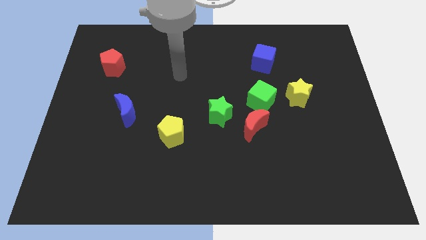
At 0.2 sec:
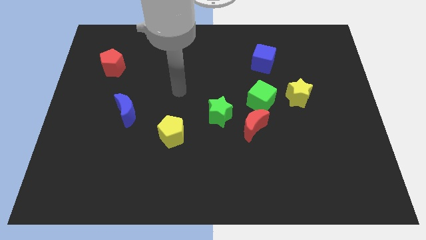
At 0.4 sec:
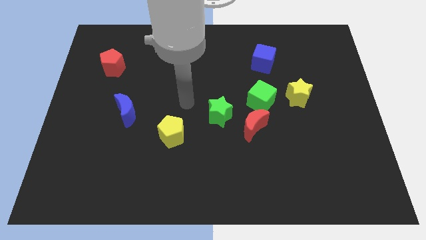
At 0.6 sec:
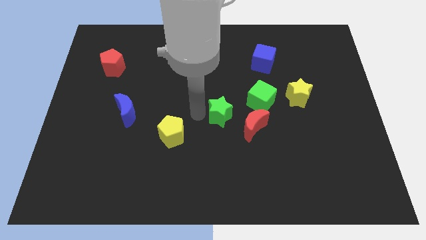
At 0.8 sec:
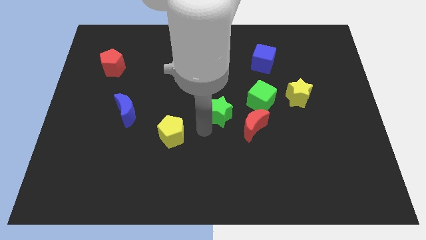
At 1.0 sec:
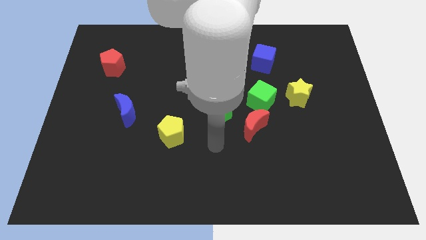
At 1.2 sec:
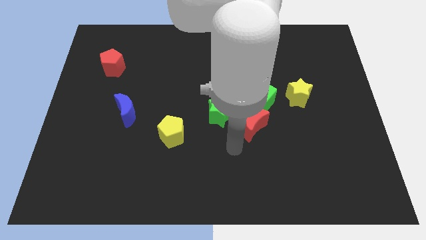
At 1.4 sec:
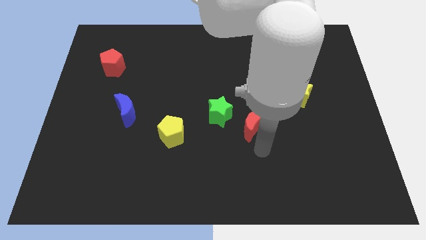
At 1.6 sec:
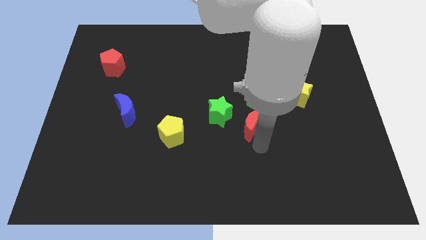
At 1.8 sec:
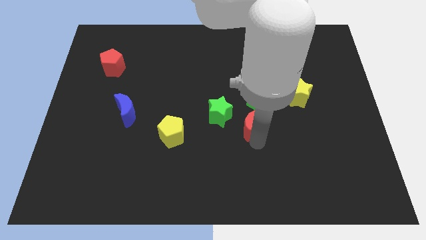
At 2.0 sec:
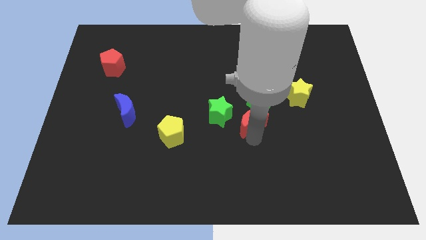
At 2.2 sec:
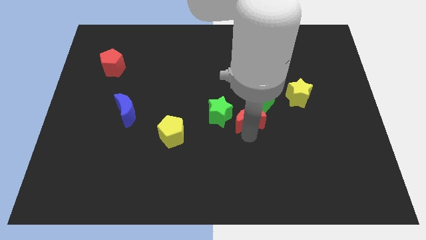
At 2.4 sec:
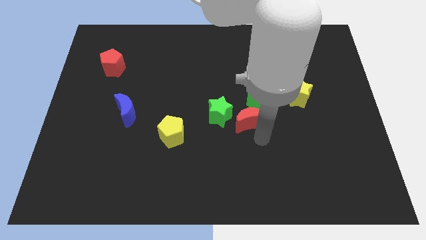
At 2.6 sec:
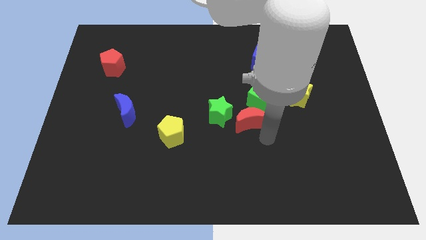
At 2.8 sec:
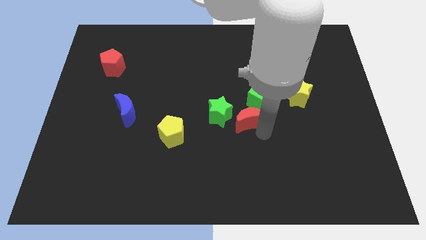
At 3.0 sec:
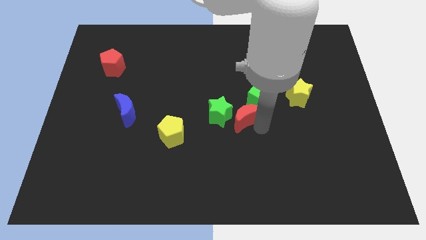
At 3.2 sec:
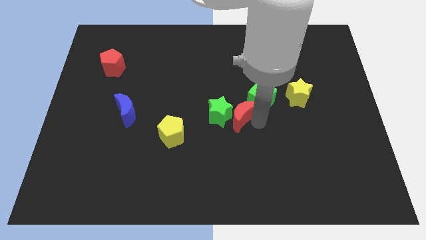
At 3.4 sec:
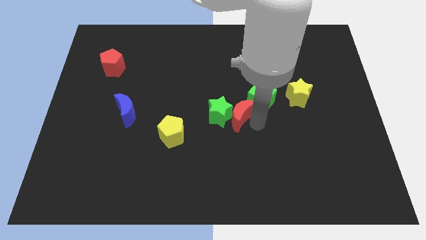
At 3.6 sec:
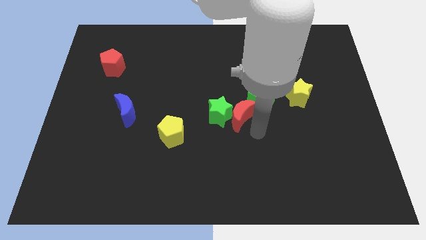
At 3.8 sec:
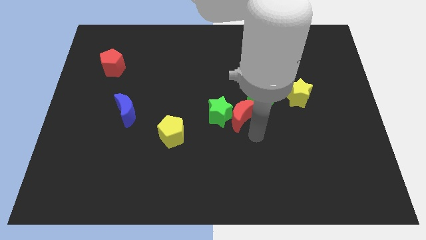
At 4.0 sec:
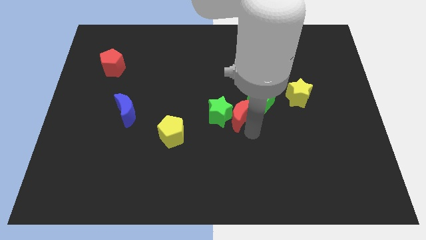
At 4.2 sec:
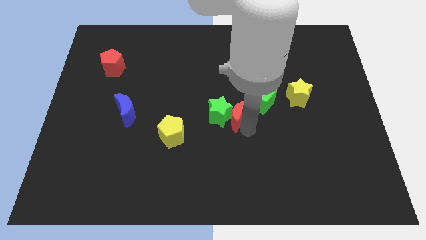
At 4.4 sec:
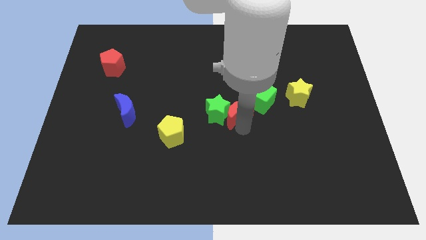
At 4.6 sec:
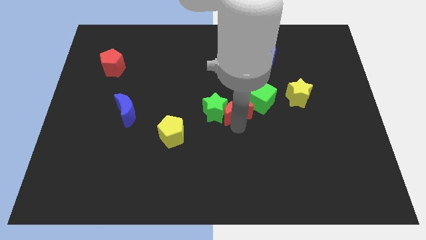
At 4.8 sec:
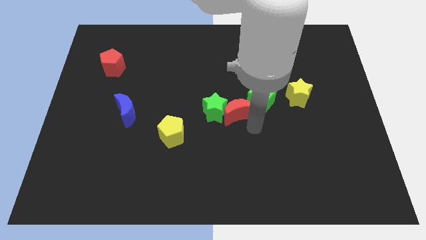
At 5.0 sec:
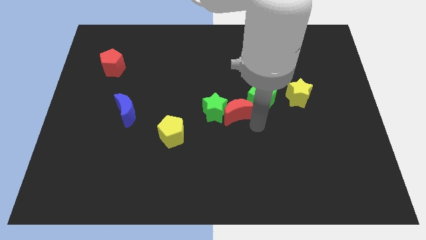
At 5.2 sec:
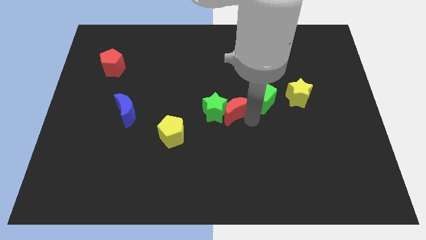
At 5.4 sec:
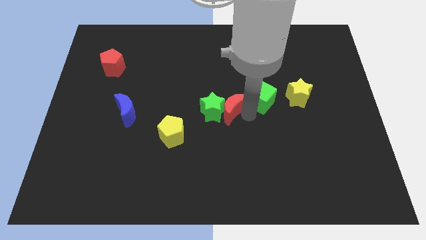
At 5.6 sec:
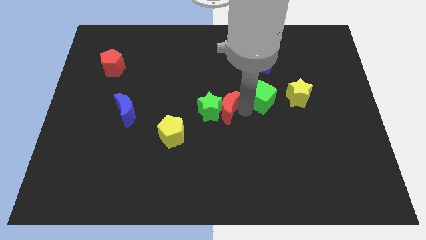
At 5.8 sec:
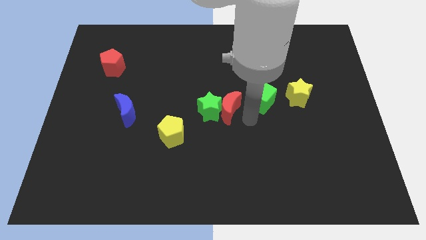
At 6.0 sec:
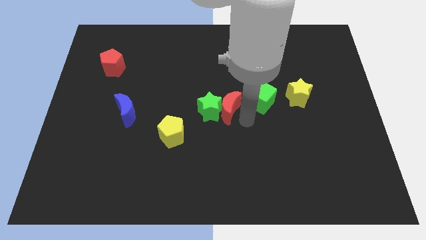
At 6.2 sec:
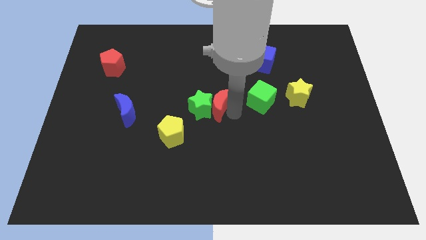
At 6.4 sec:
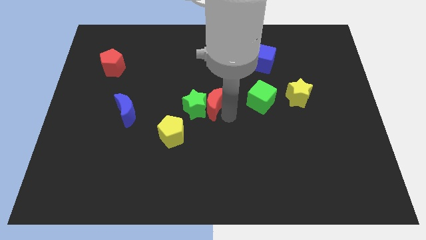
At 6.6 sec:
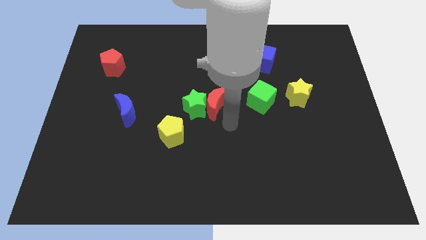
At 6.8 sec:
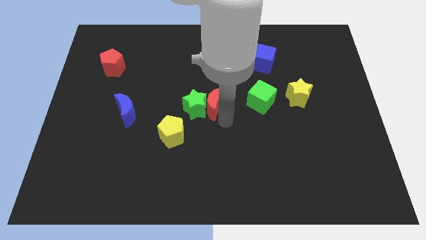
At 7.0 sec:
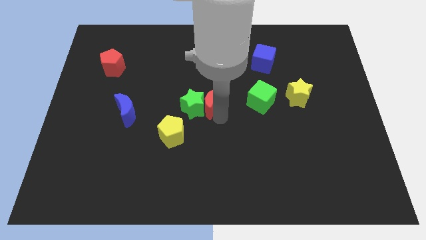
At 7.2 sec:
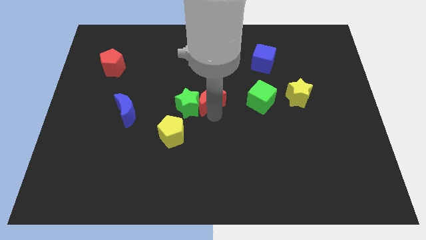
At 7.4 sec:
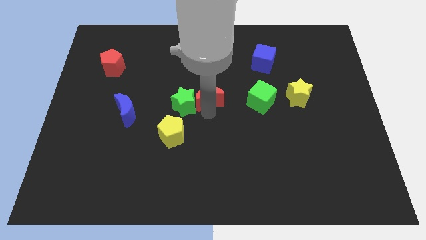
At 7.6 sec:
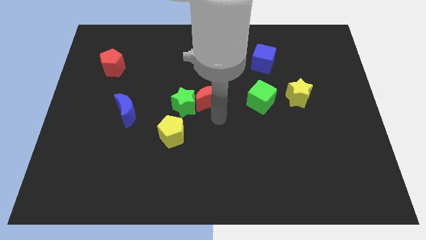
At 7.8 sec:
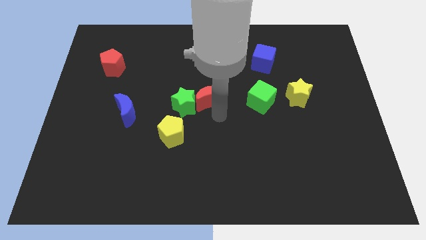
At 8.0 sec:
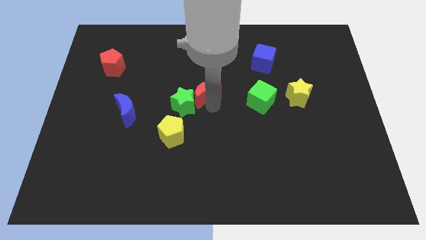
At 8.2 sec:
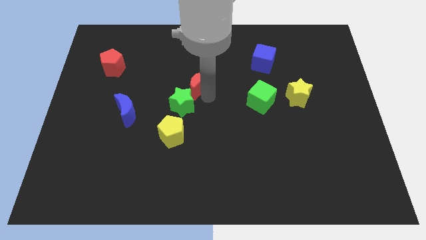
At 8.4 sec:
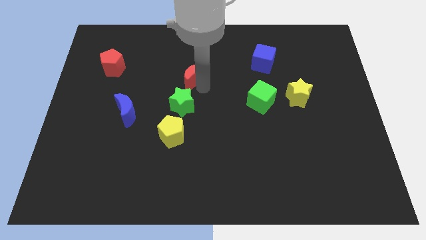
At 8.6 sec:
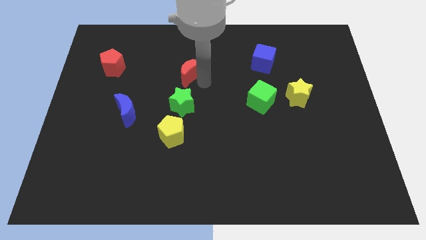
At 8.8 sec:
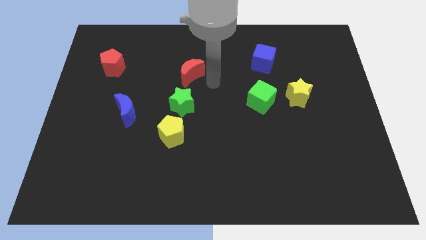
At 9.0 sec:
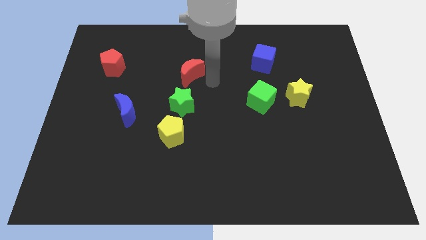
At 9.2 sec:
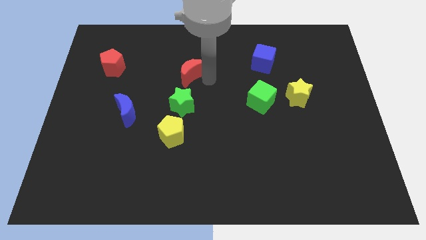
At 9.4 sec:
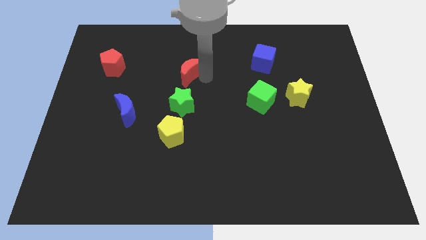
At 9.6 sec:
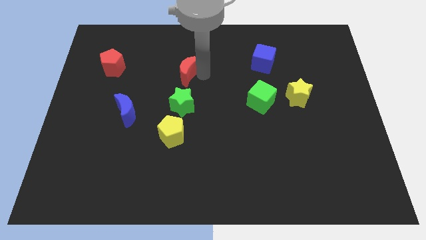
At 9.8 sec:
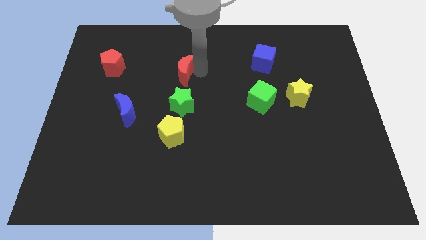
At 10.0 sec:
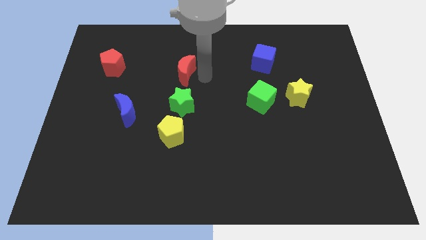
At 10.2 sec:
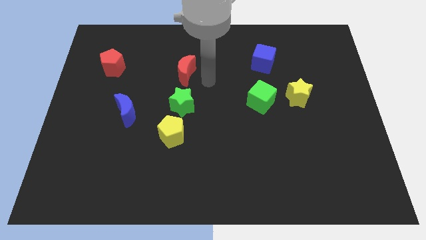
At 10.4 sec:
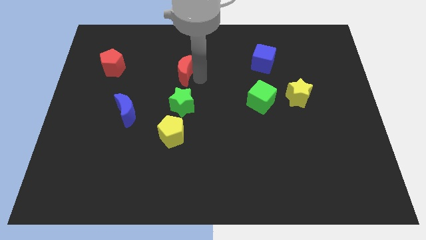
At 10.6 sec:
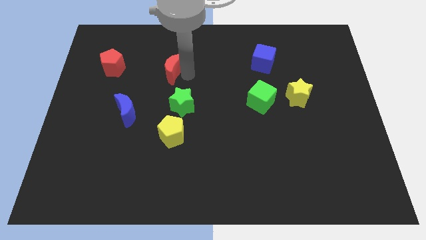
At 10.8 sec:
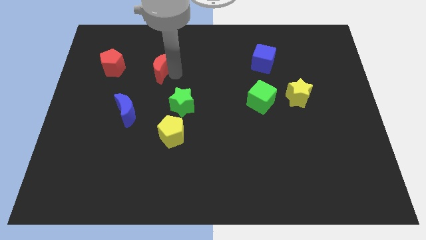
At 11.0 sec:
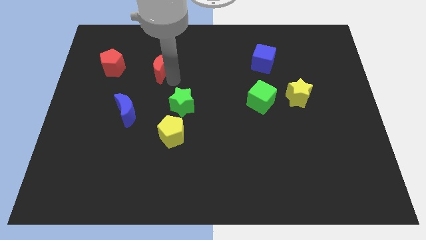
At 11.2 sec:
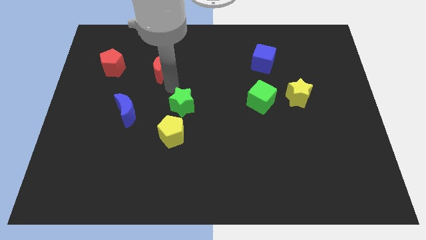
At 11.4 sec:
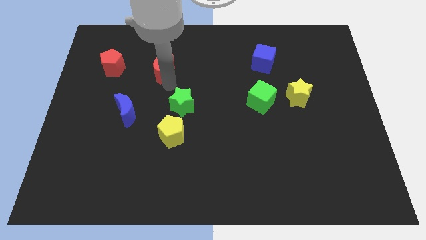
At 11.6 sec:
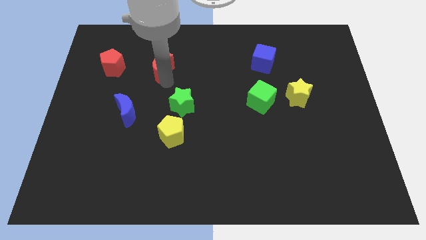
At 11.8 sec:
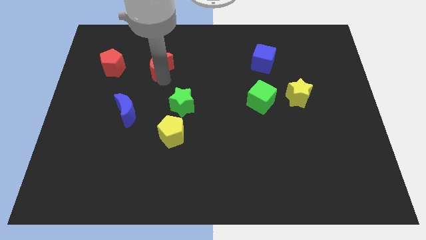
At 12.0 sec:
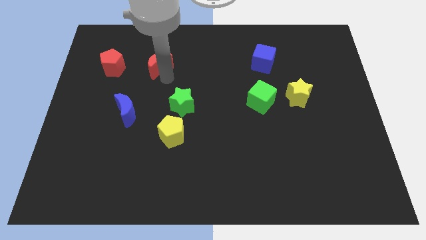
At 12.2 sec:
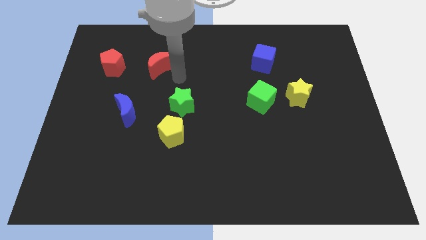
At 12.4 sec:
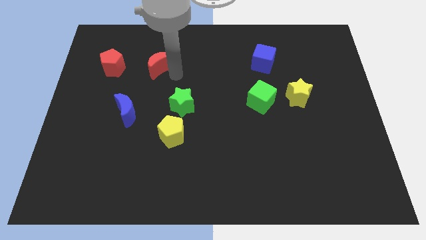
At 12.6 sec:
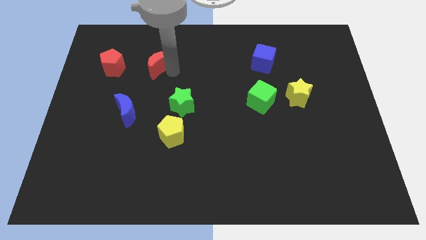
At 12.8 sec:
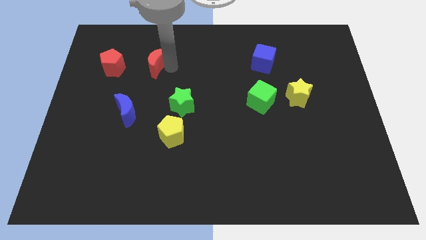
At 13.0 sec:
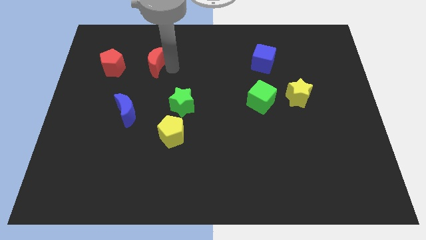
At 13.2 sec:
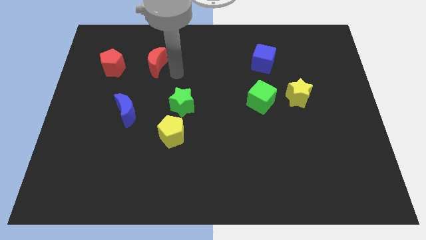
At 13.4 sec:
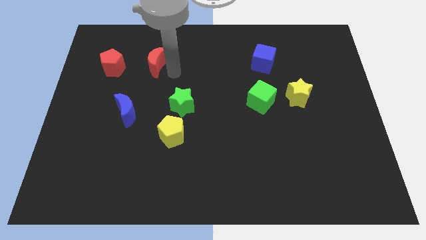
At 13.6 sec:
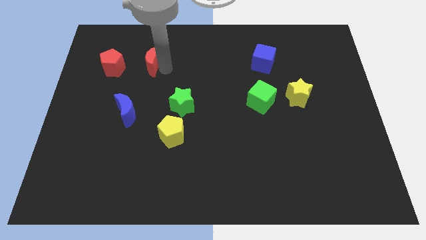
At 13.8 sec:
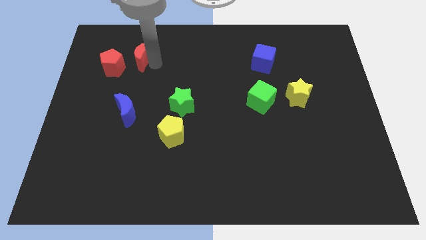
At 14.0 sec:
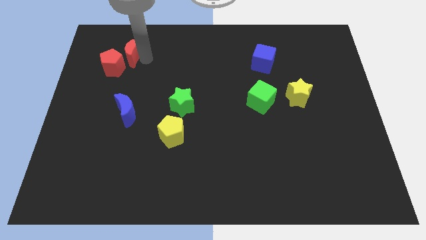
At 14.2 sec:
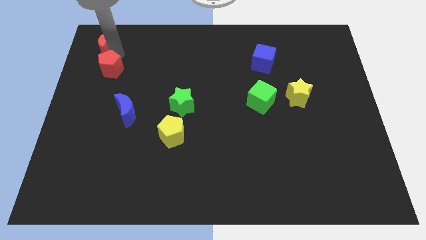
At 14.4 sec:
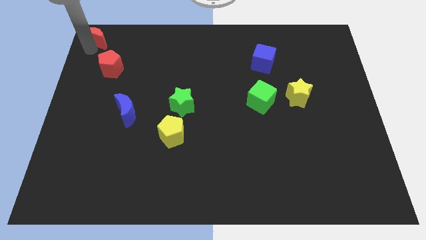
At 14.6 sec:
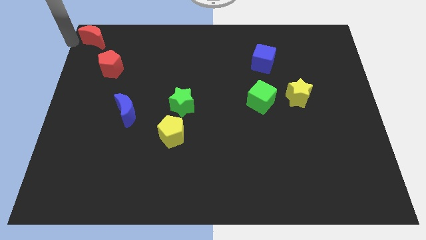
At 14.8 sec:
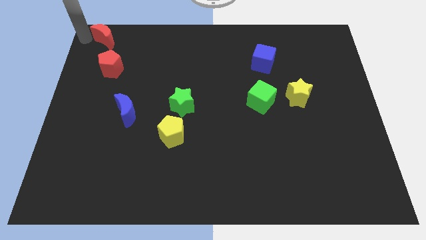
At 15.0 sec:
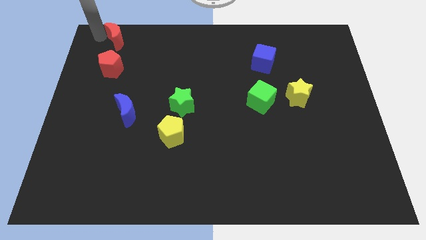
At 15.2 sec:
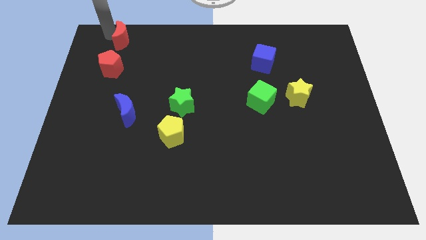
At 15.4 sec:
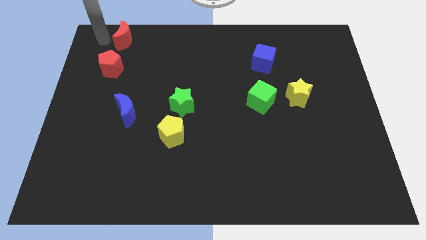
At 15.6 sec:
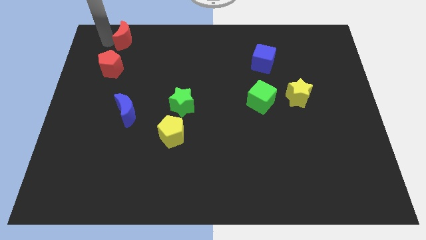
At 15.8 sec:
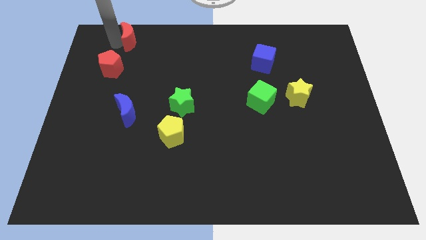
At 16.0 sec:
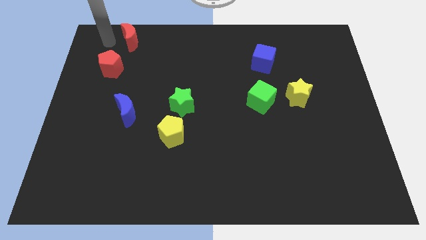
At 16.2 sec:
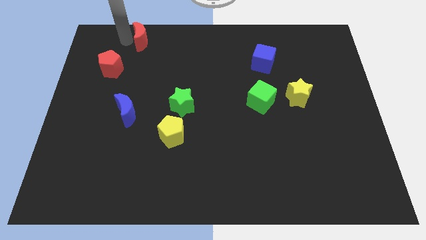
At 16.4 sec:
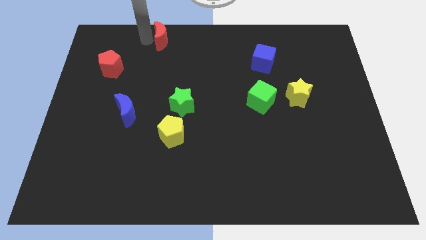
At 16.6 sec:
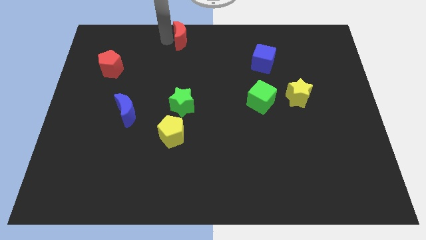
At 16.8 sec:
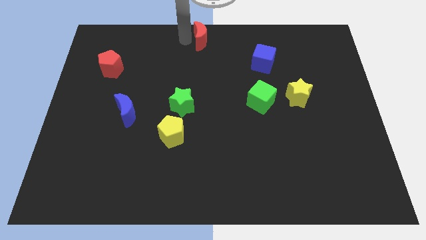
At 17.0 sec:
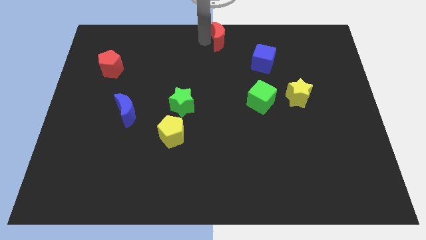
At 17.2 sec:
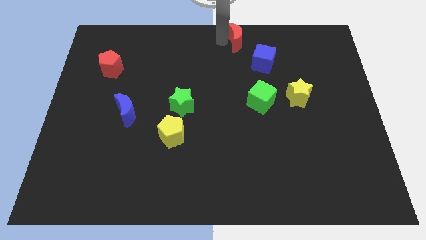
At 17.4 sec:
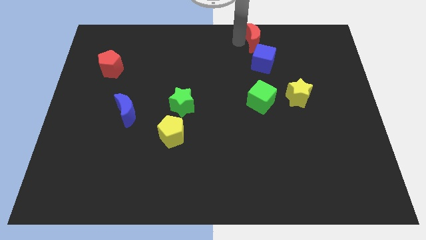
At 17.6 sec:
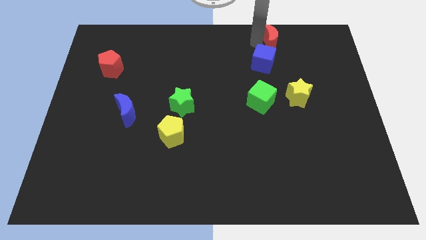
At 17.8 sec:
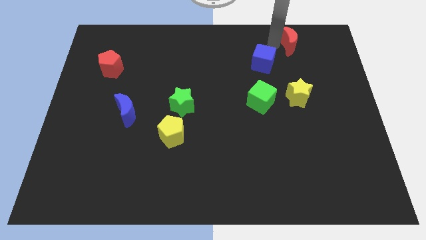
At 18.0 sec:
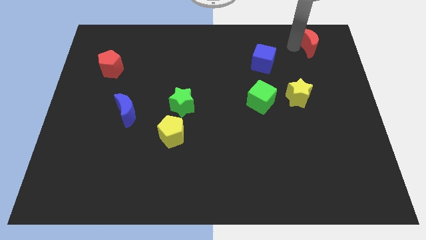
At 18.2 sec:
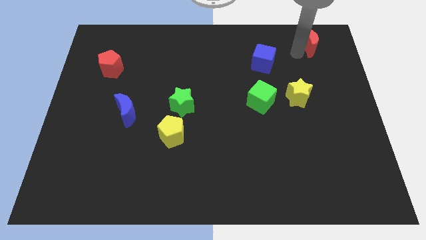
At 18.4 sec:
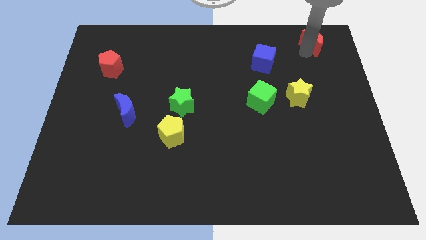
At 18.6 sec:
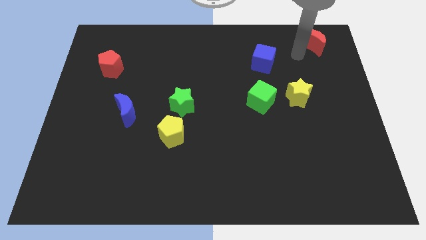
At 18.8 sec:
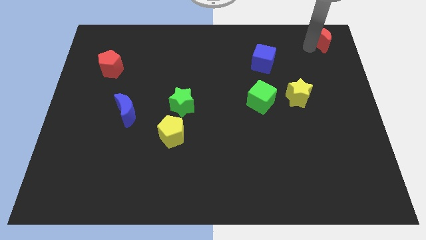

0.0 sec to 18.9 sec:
move the red moon to the top right of the board
